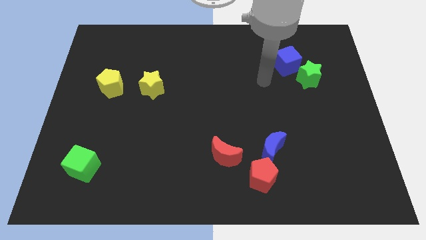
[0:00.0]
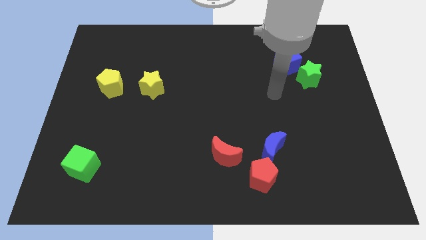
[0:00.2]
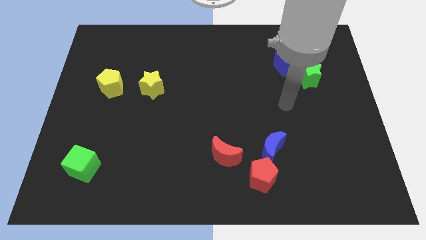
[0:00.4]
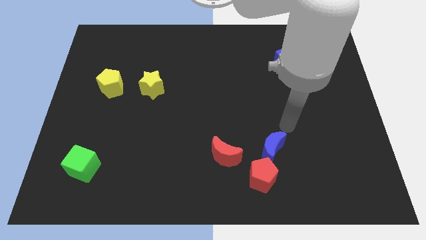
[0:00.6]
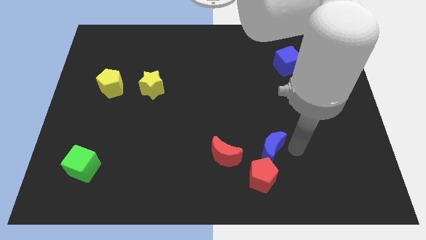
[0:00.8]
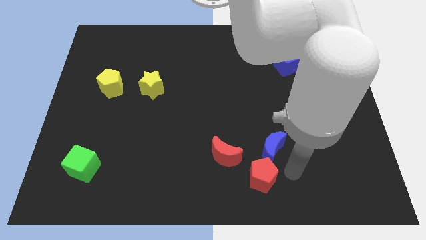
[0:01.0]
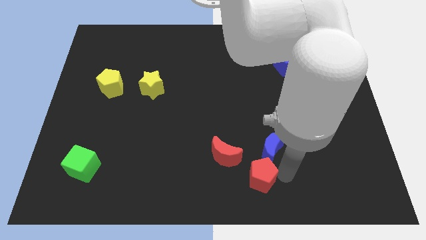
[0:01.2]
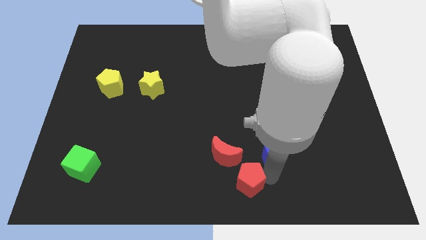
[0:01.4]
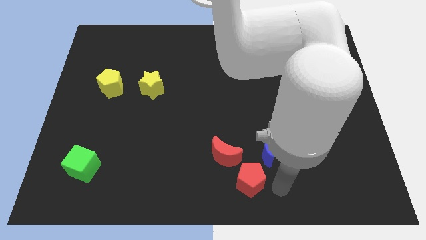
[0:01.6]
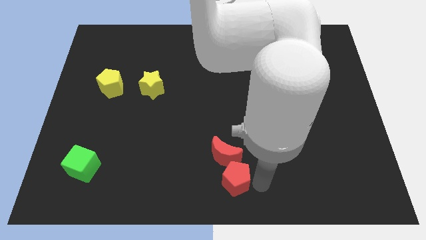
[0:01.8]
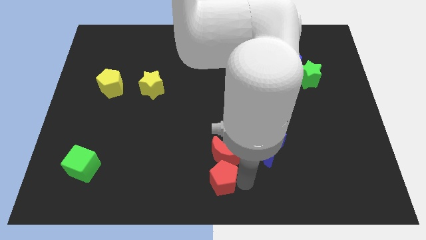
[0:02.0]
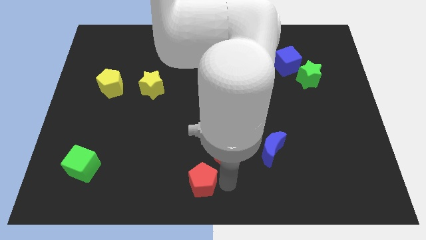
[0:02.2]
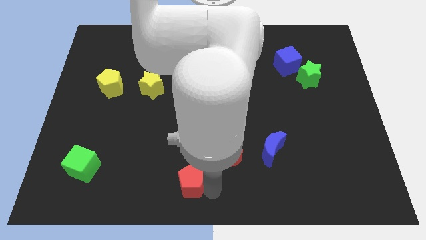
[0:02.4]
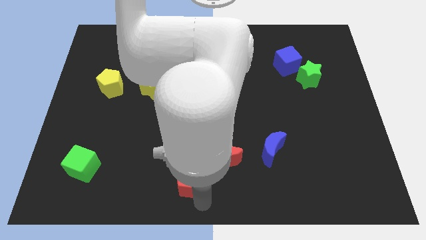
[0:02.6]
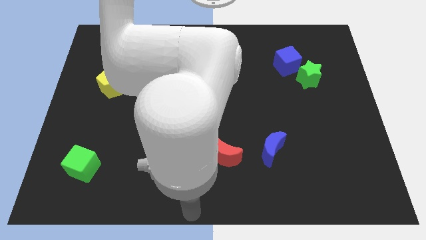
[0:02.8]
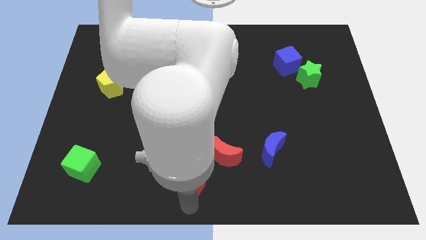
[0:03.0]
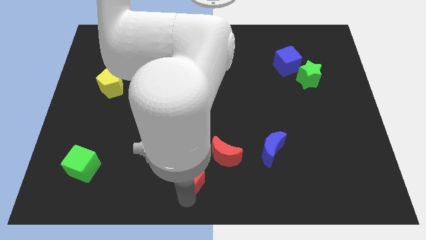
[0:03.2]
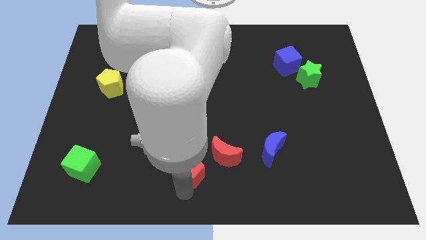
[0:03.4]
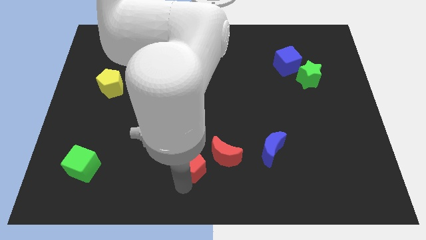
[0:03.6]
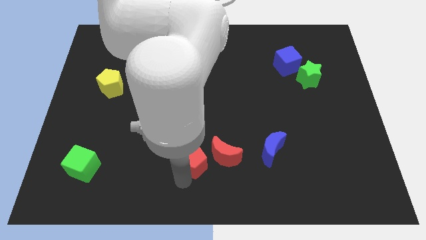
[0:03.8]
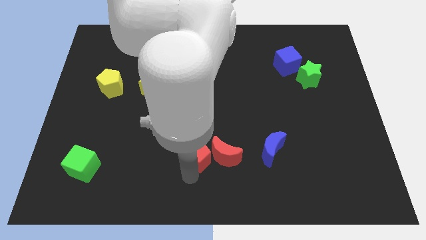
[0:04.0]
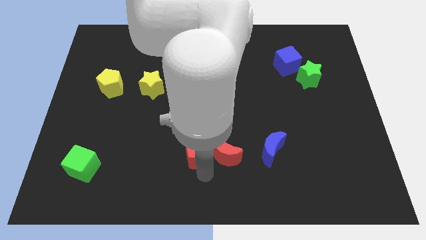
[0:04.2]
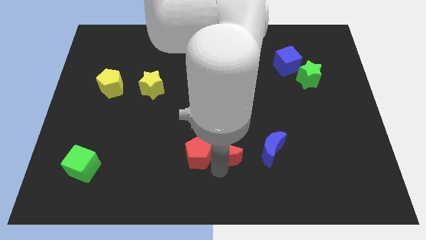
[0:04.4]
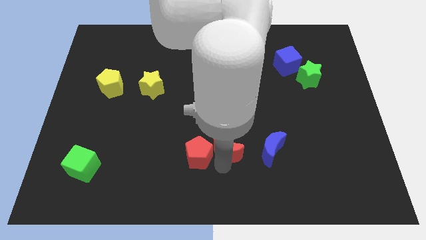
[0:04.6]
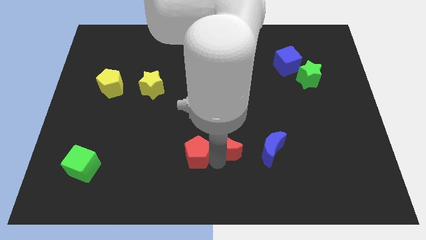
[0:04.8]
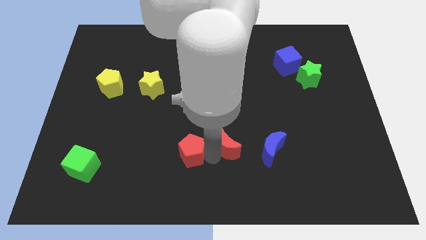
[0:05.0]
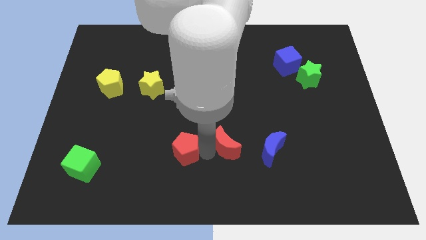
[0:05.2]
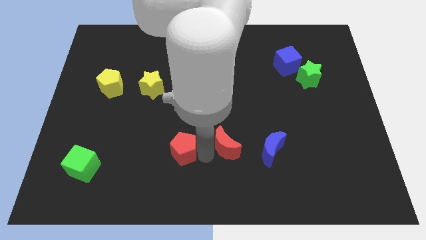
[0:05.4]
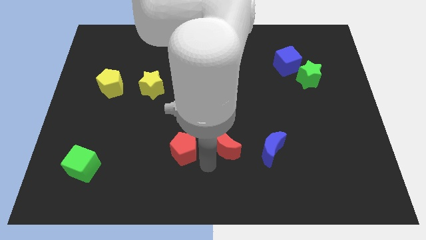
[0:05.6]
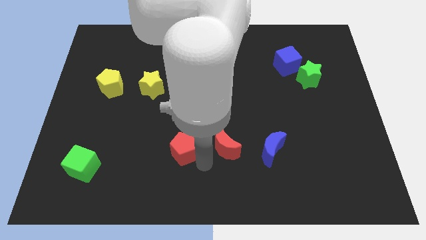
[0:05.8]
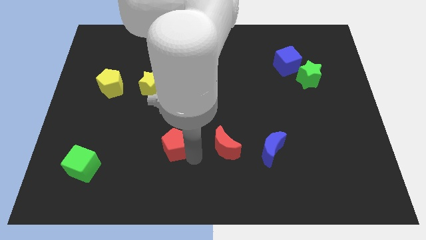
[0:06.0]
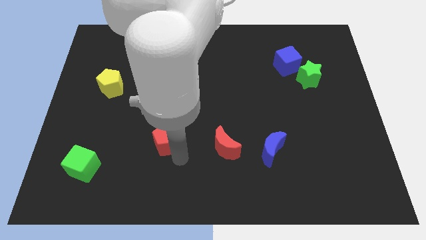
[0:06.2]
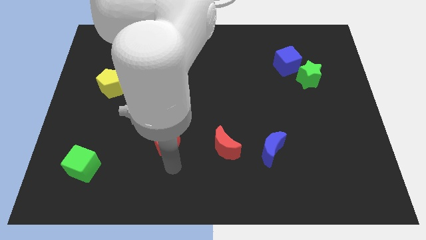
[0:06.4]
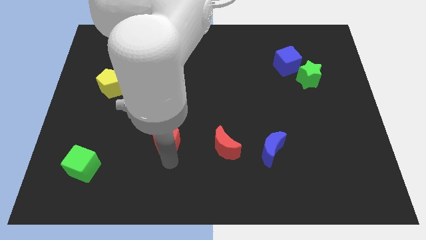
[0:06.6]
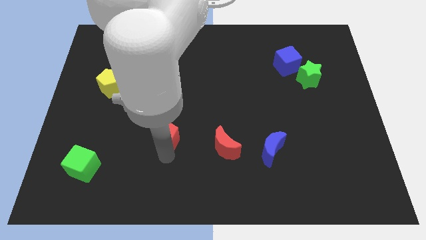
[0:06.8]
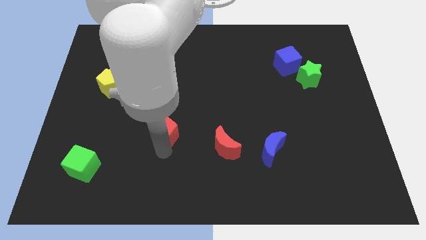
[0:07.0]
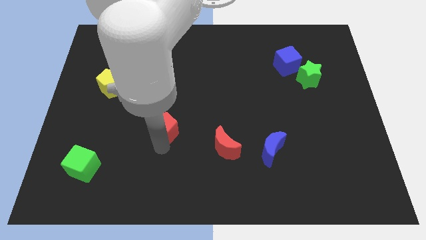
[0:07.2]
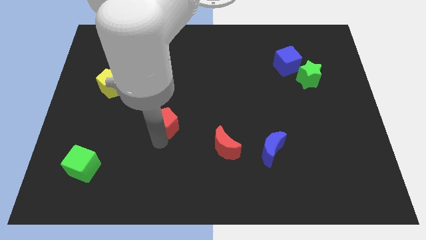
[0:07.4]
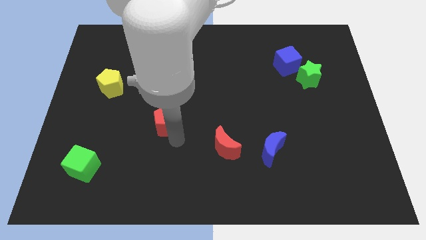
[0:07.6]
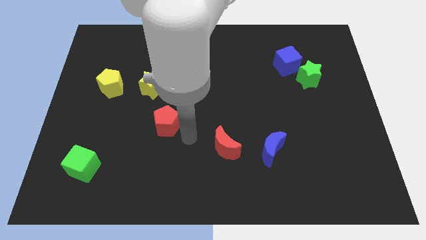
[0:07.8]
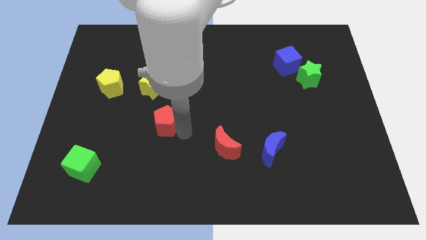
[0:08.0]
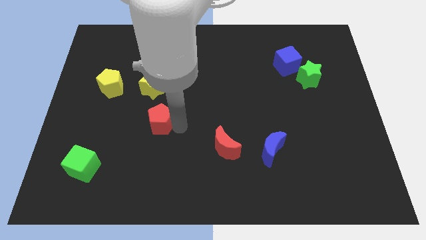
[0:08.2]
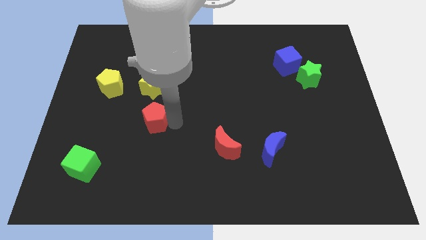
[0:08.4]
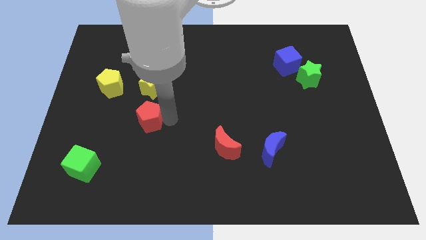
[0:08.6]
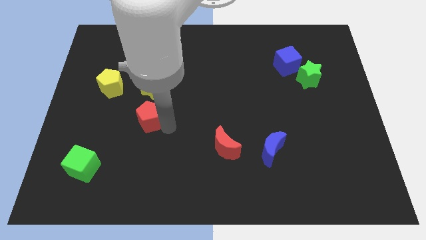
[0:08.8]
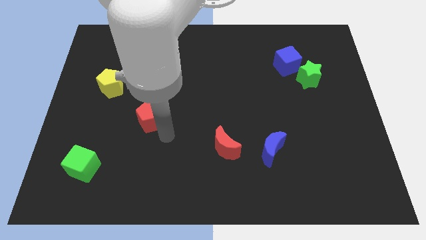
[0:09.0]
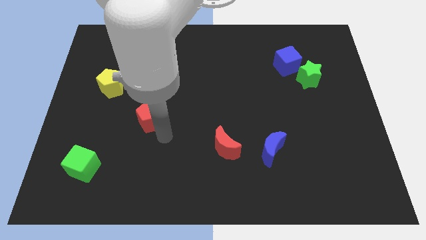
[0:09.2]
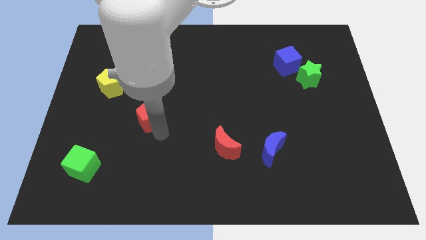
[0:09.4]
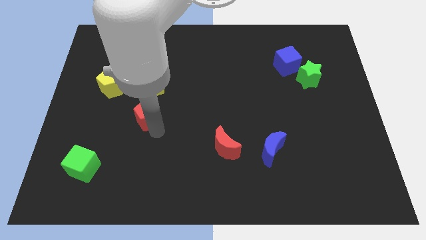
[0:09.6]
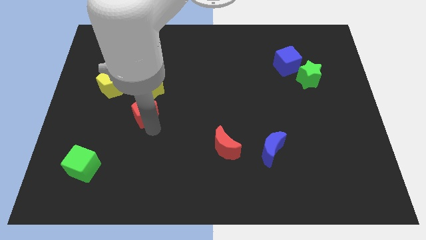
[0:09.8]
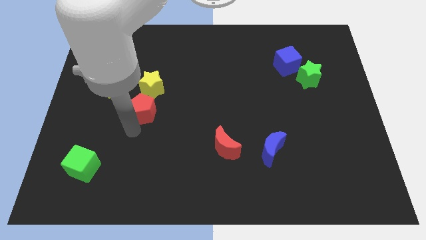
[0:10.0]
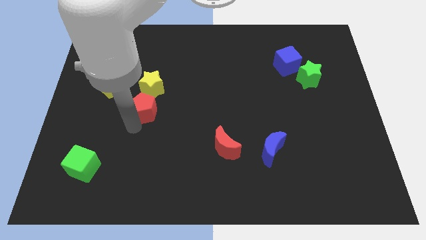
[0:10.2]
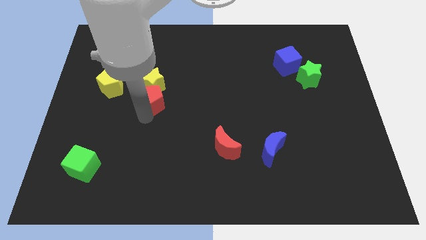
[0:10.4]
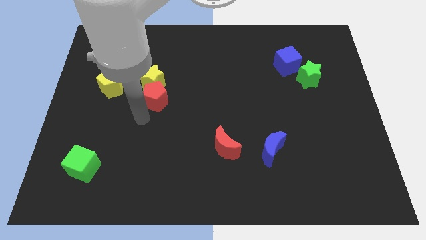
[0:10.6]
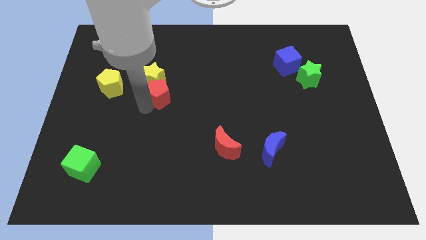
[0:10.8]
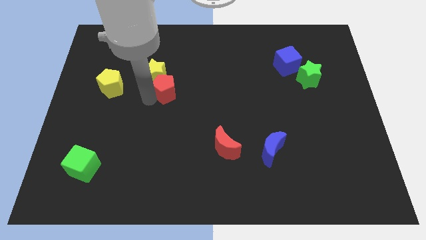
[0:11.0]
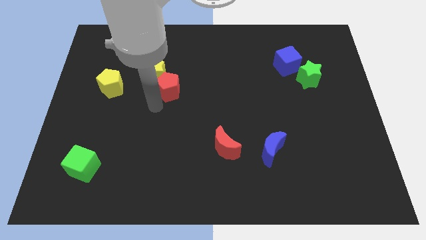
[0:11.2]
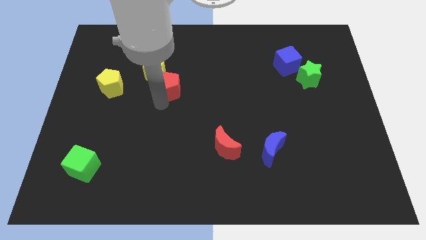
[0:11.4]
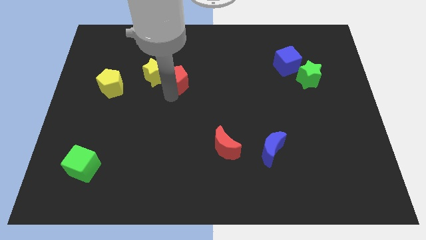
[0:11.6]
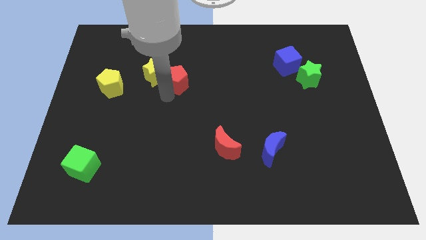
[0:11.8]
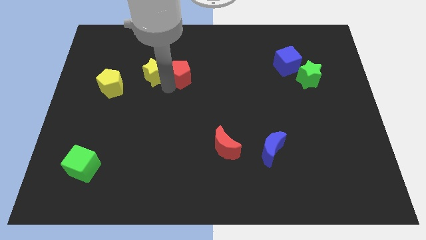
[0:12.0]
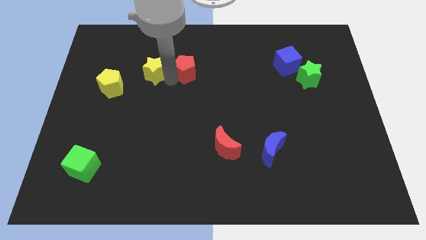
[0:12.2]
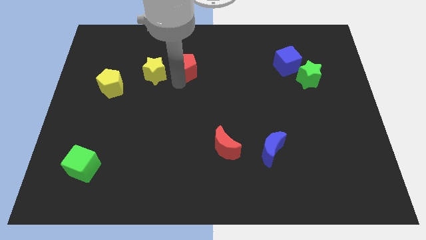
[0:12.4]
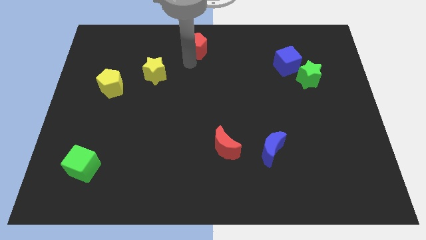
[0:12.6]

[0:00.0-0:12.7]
put the red pentagon to the top side

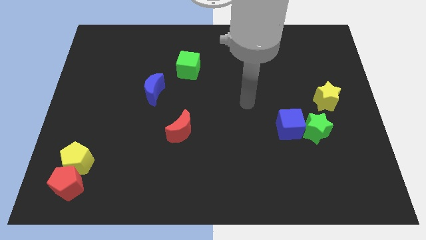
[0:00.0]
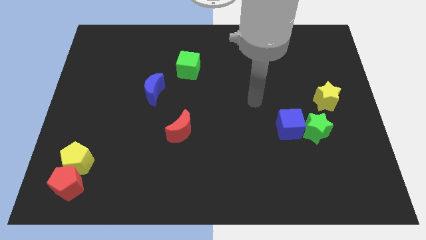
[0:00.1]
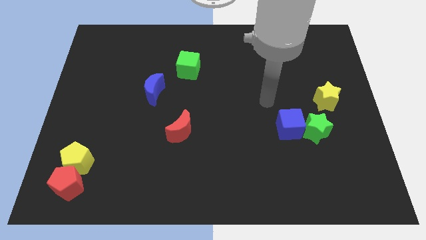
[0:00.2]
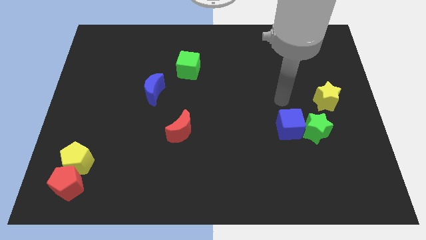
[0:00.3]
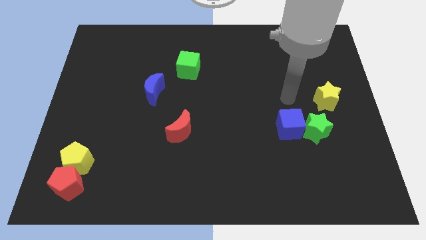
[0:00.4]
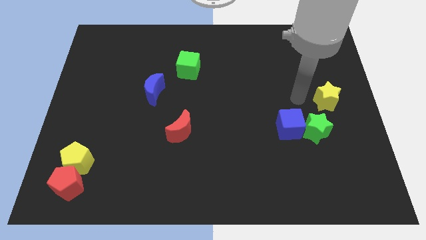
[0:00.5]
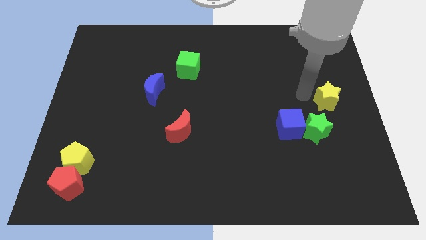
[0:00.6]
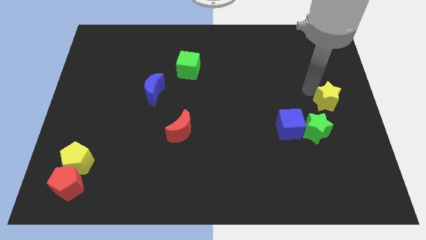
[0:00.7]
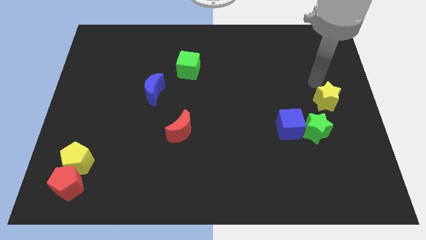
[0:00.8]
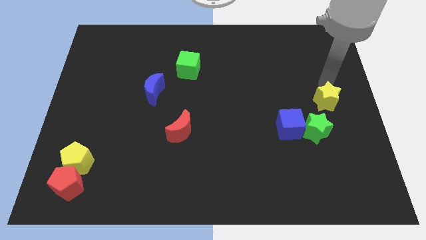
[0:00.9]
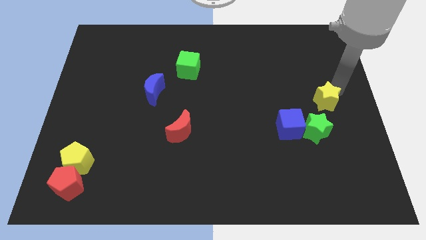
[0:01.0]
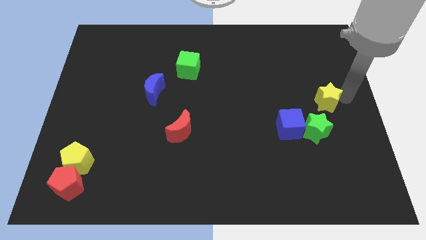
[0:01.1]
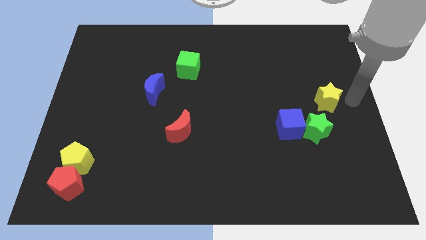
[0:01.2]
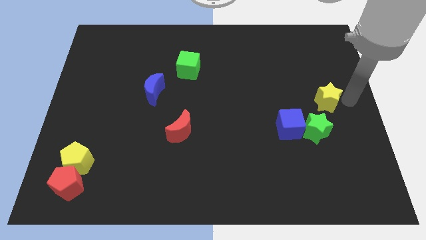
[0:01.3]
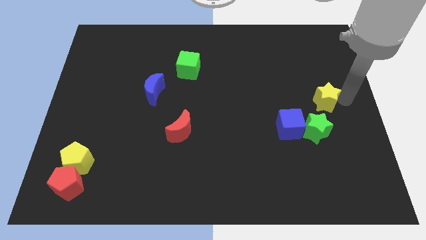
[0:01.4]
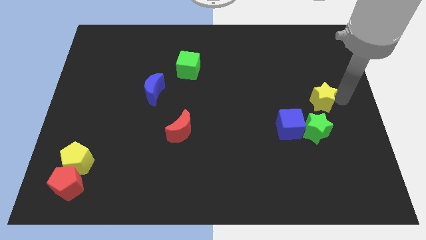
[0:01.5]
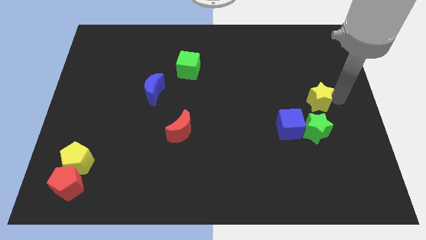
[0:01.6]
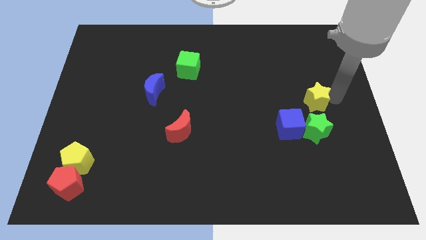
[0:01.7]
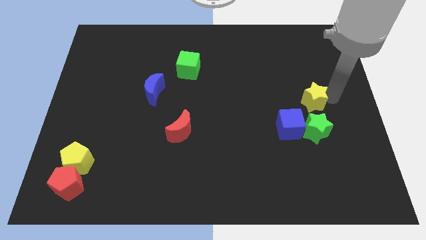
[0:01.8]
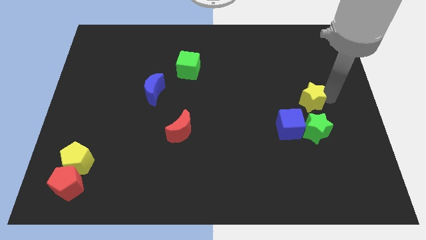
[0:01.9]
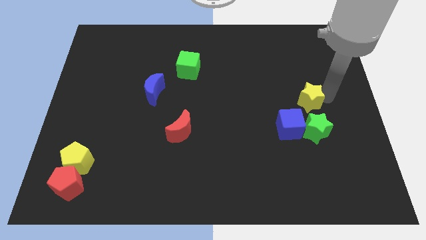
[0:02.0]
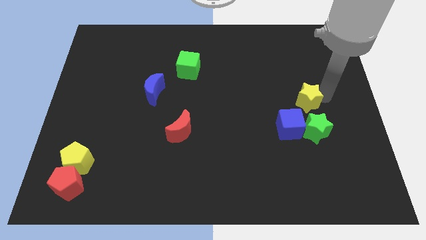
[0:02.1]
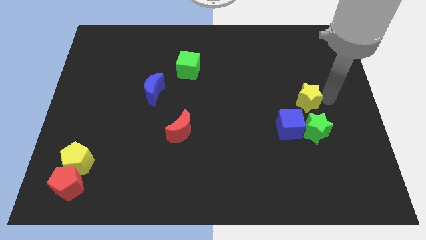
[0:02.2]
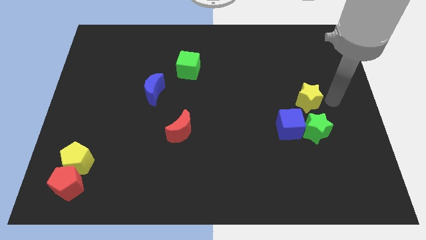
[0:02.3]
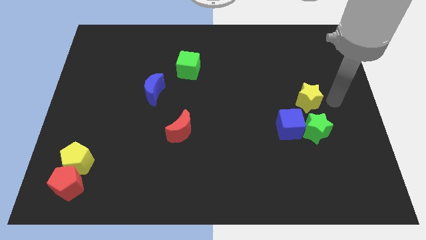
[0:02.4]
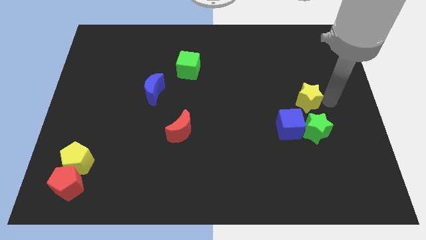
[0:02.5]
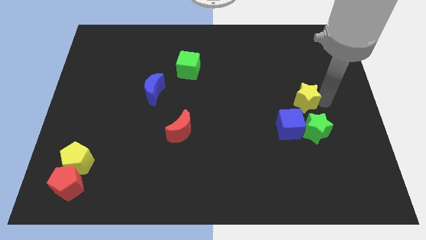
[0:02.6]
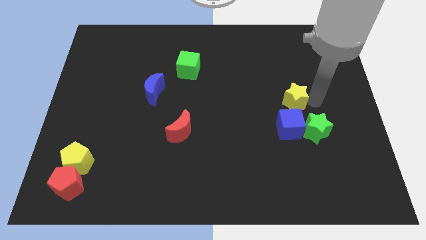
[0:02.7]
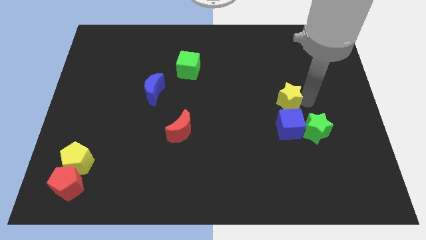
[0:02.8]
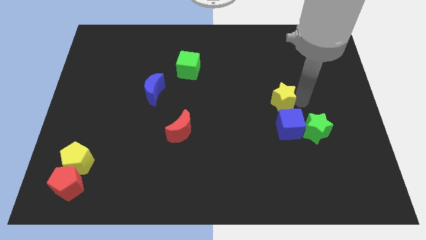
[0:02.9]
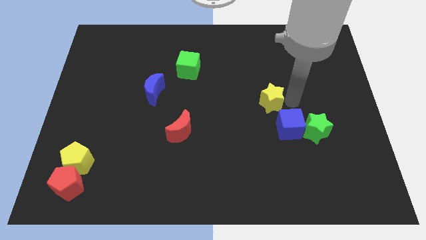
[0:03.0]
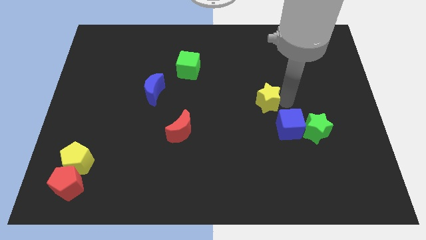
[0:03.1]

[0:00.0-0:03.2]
put the yellow star to the center of the board
